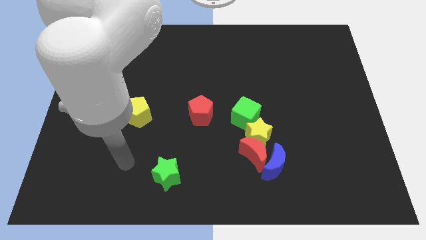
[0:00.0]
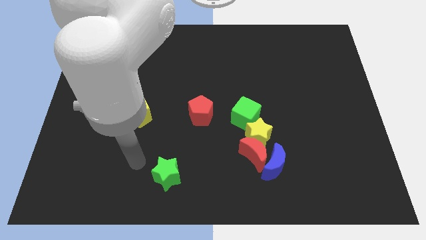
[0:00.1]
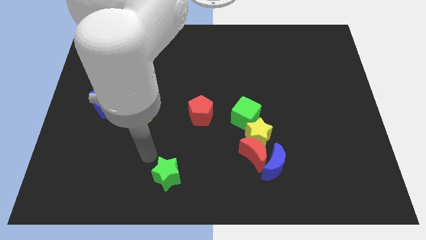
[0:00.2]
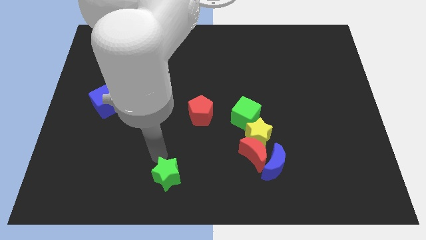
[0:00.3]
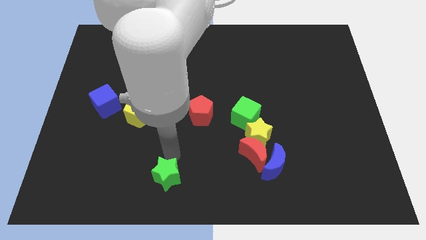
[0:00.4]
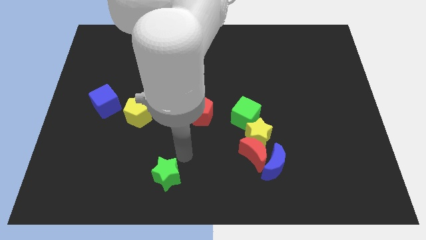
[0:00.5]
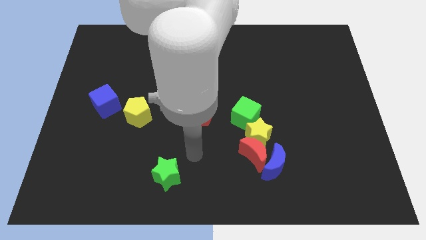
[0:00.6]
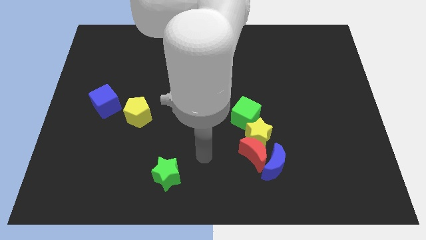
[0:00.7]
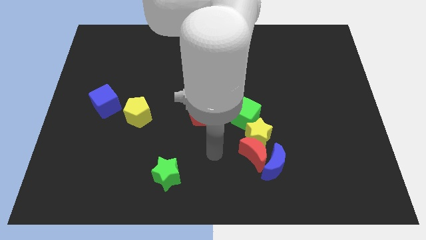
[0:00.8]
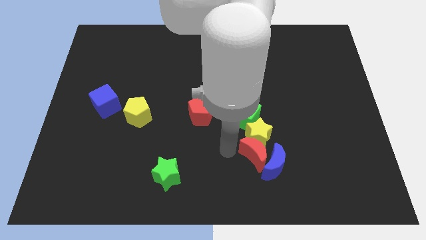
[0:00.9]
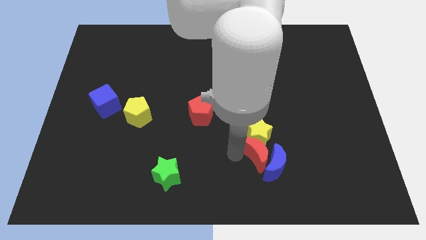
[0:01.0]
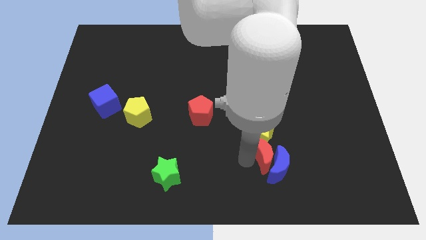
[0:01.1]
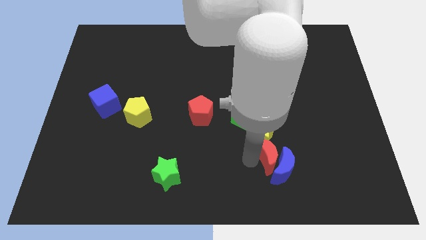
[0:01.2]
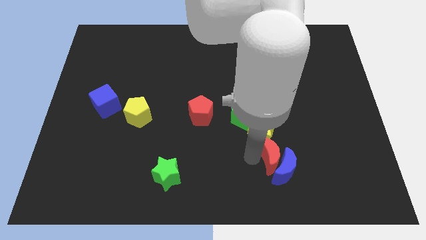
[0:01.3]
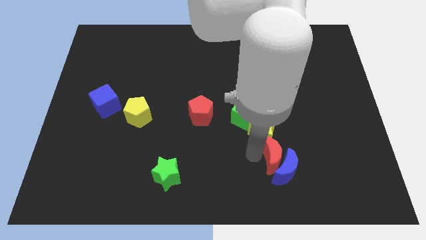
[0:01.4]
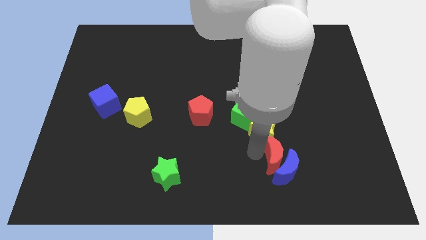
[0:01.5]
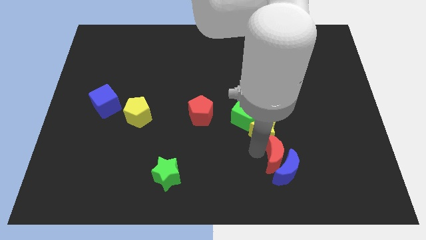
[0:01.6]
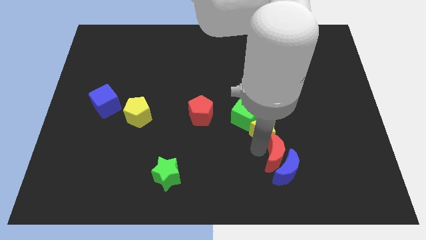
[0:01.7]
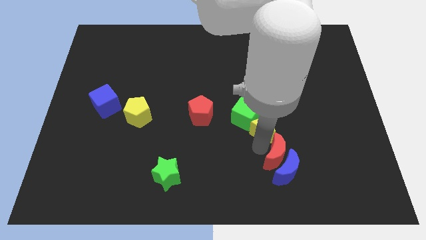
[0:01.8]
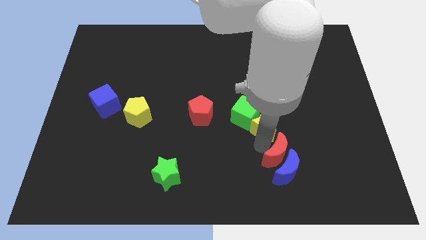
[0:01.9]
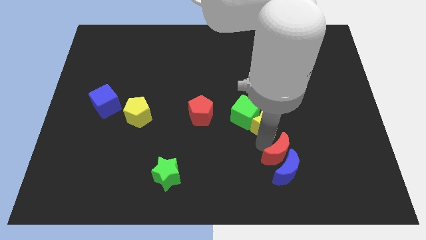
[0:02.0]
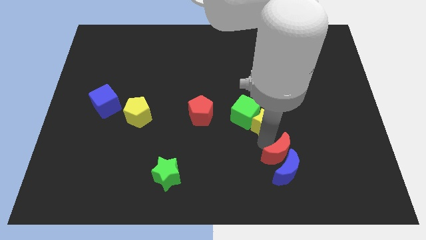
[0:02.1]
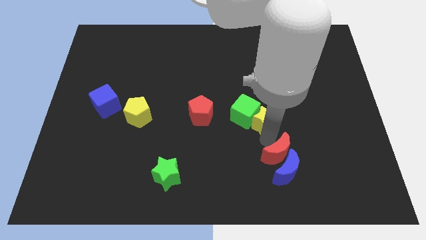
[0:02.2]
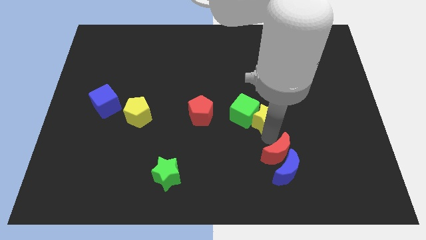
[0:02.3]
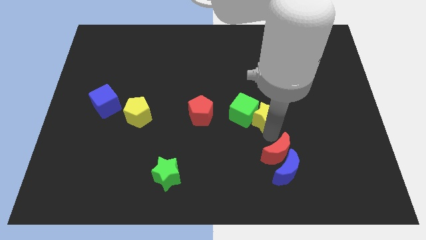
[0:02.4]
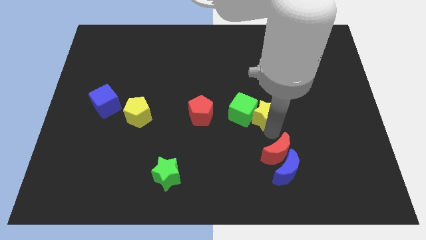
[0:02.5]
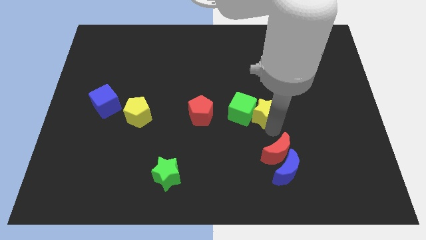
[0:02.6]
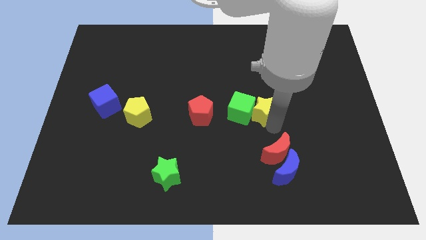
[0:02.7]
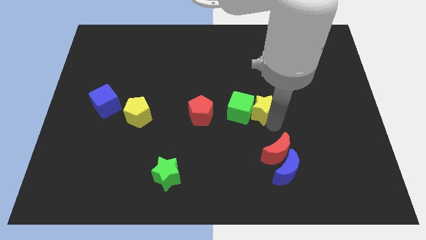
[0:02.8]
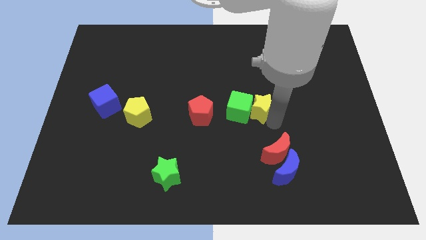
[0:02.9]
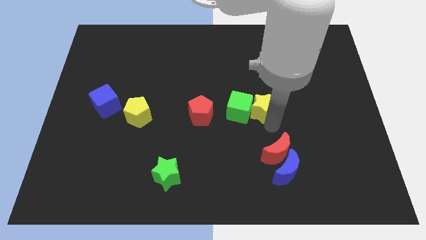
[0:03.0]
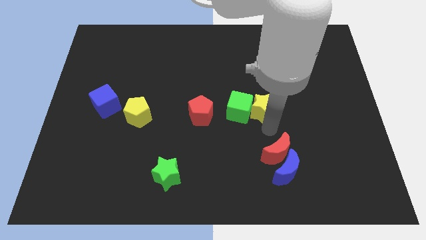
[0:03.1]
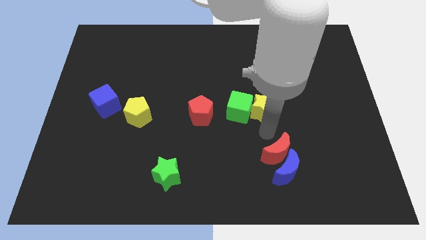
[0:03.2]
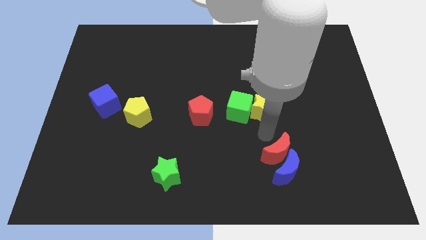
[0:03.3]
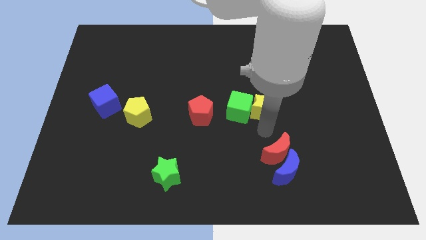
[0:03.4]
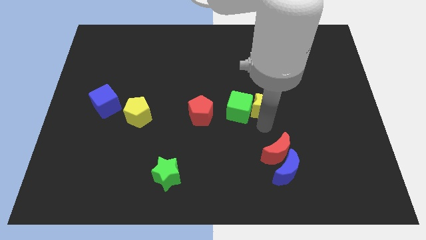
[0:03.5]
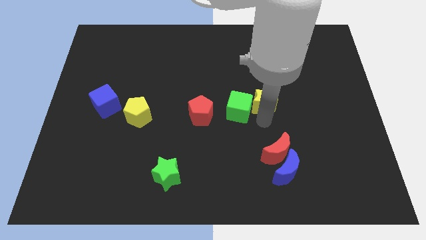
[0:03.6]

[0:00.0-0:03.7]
move the yellow star away from the group of blocks

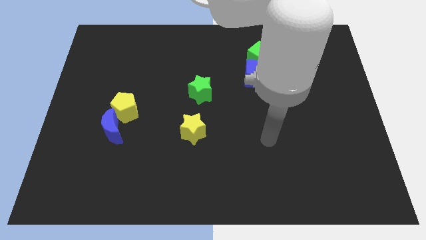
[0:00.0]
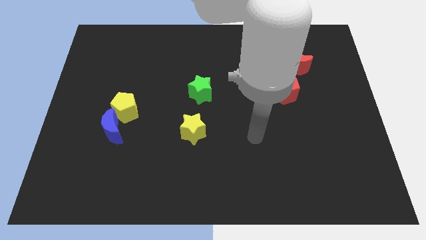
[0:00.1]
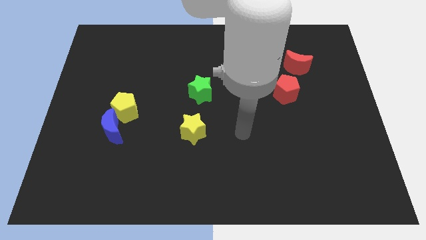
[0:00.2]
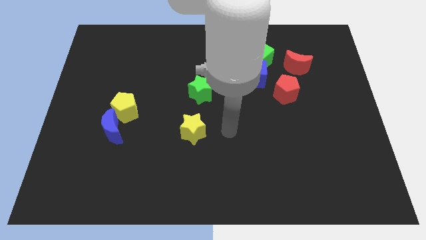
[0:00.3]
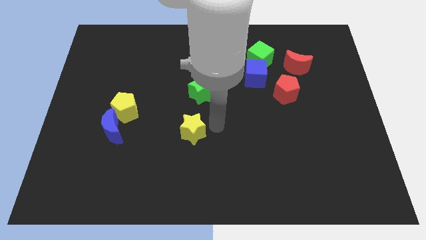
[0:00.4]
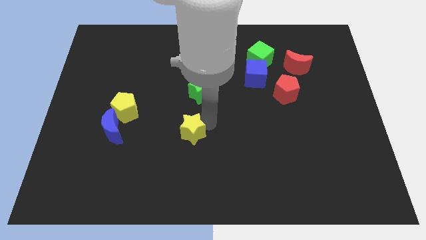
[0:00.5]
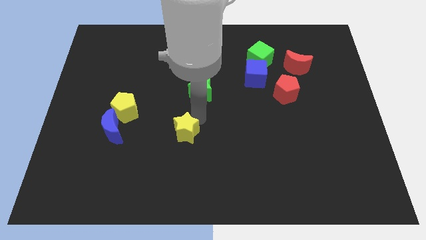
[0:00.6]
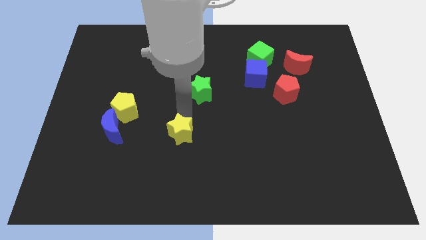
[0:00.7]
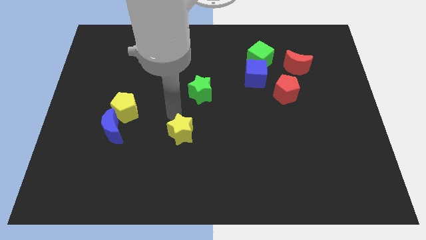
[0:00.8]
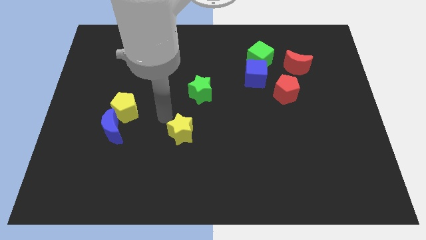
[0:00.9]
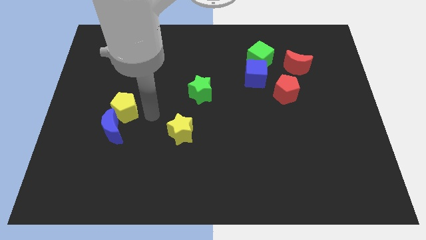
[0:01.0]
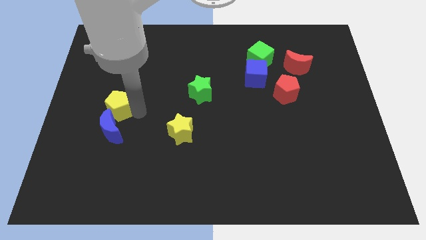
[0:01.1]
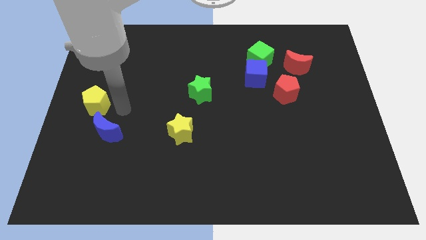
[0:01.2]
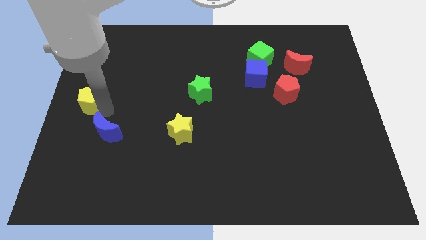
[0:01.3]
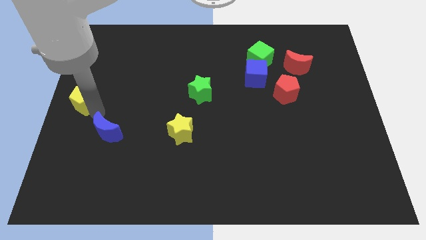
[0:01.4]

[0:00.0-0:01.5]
separate the blue moon from the yellow pentagon

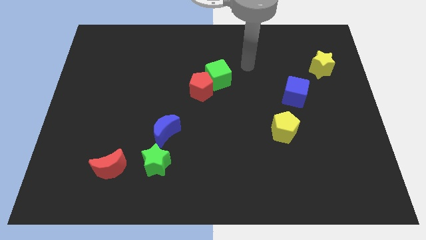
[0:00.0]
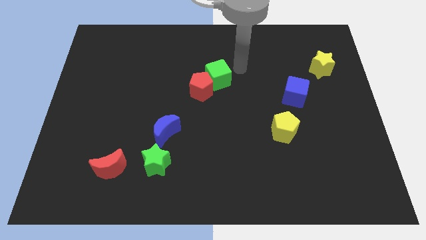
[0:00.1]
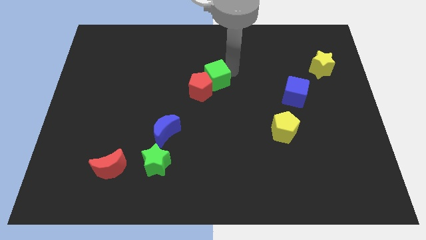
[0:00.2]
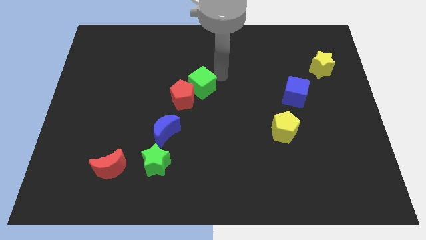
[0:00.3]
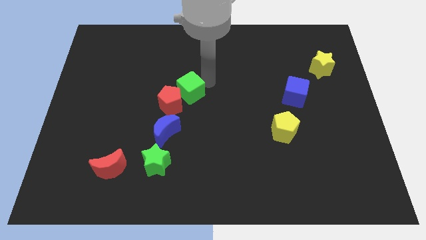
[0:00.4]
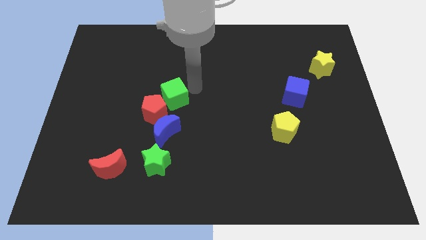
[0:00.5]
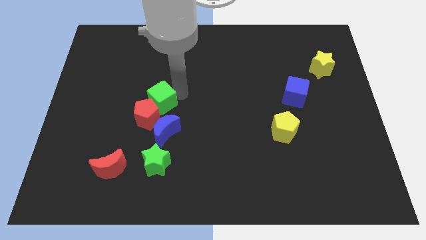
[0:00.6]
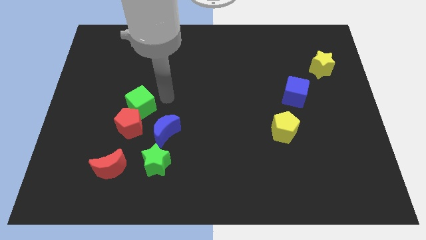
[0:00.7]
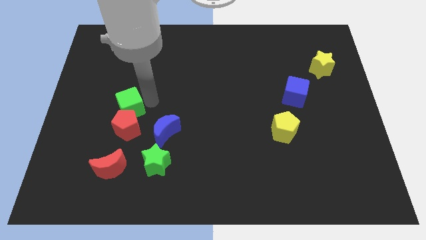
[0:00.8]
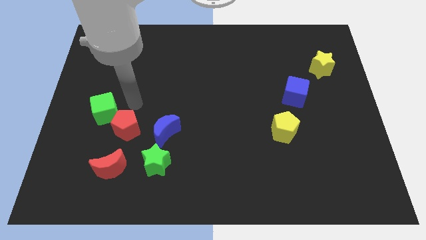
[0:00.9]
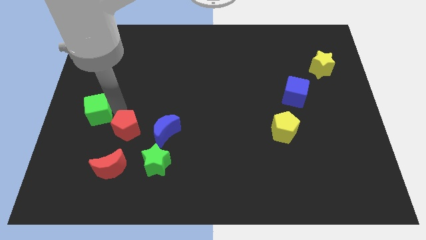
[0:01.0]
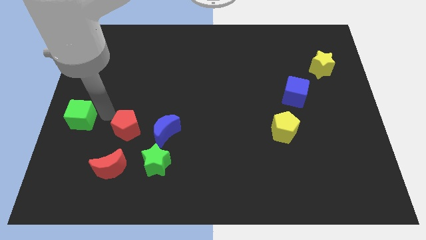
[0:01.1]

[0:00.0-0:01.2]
pull the red pentagon apart from the green cube

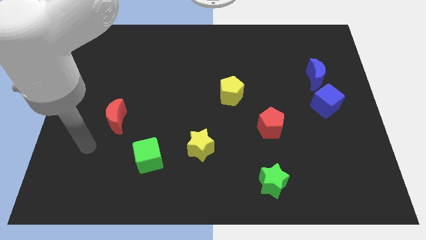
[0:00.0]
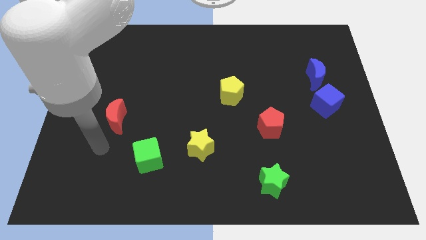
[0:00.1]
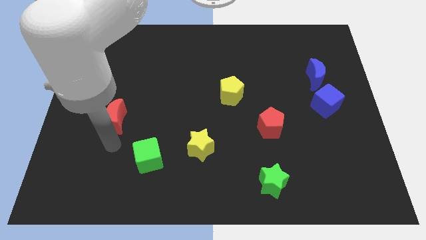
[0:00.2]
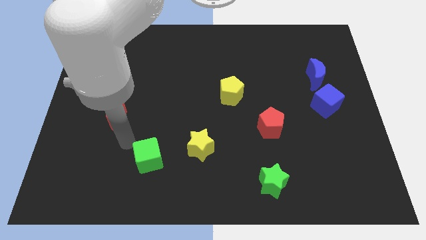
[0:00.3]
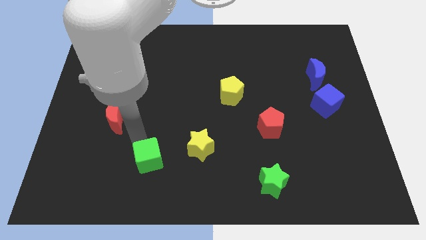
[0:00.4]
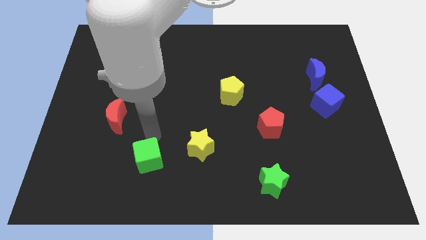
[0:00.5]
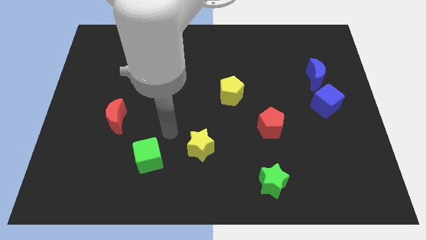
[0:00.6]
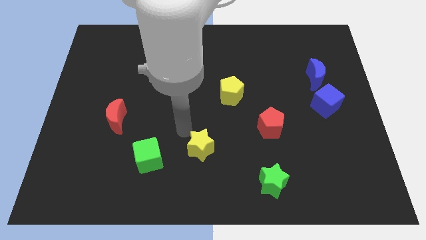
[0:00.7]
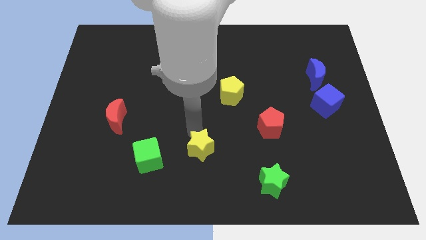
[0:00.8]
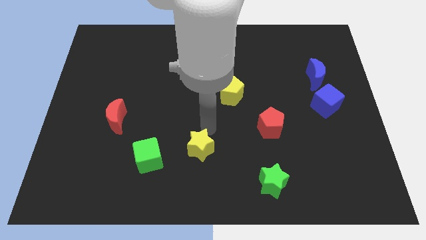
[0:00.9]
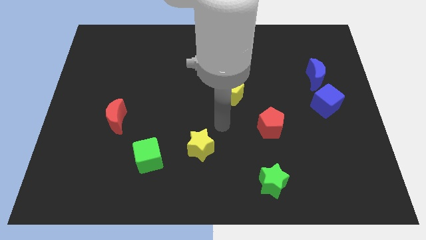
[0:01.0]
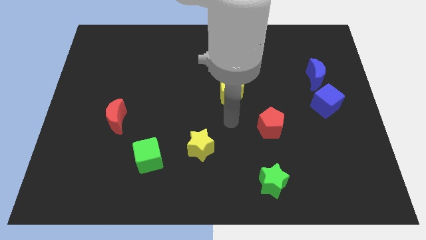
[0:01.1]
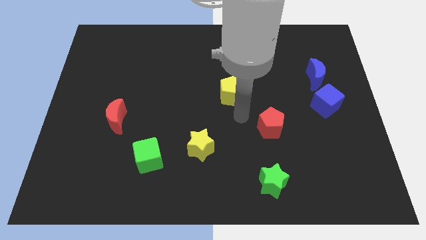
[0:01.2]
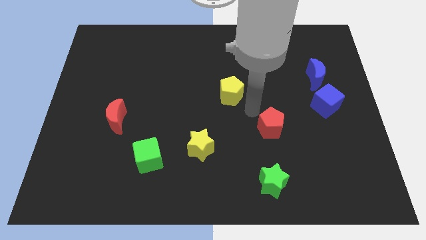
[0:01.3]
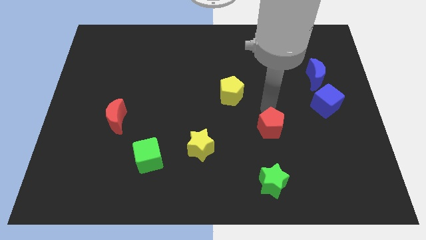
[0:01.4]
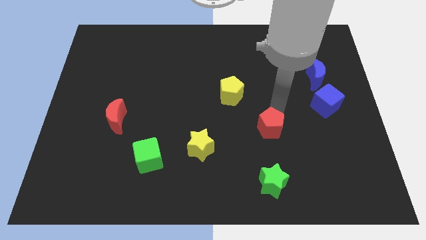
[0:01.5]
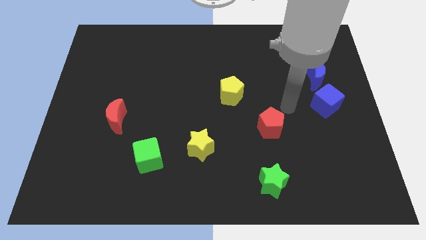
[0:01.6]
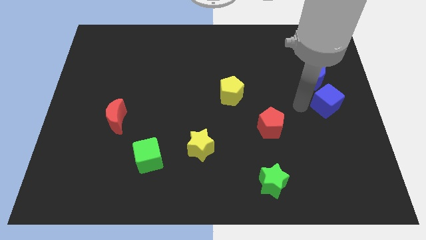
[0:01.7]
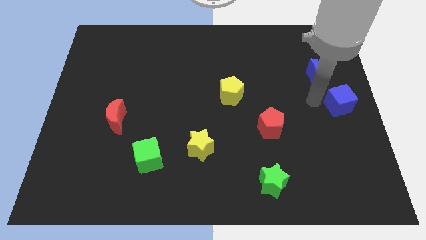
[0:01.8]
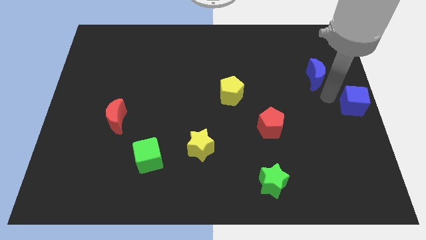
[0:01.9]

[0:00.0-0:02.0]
pull the blue moon apart from the blue cube

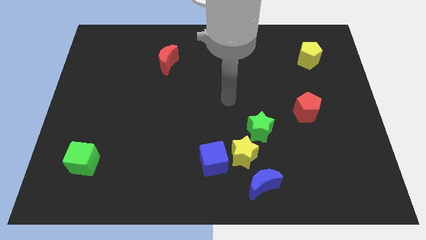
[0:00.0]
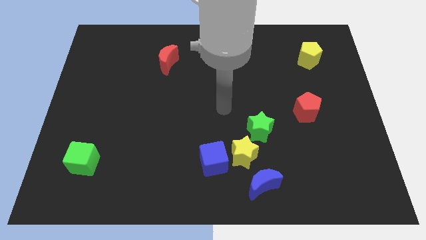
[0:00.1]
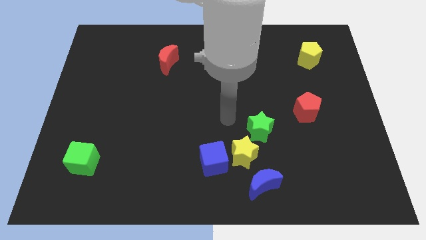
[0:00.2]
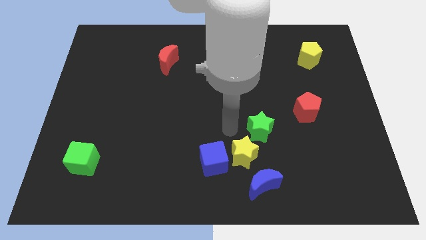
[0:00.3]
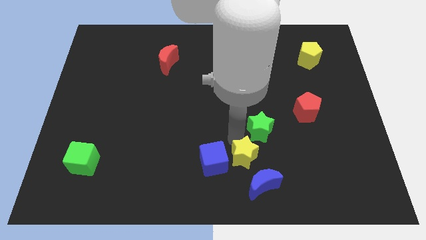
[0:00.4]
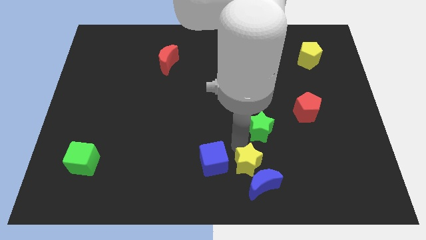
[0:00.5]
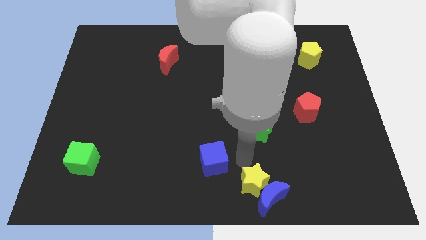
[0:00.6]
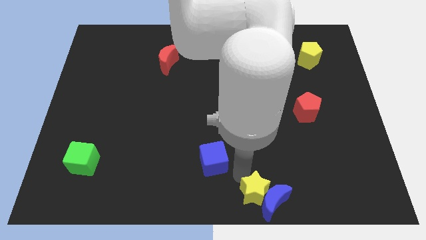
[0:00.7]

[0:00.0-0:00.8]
pull the blue cube apart from the yellow star

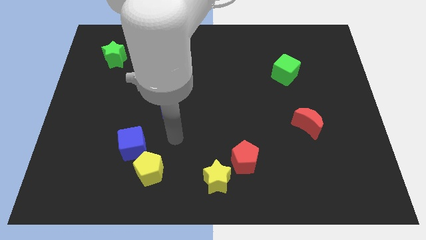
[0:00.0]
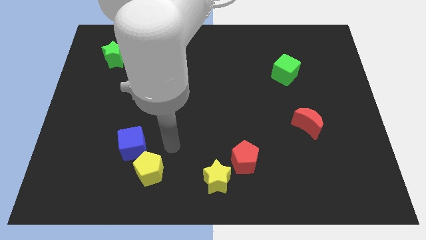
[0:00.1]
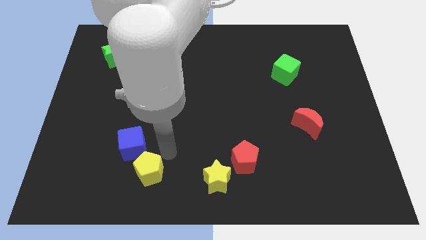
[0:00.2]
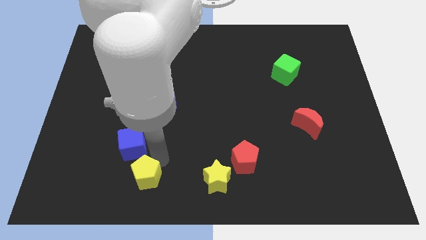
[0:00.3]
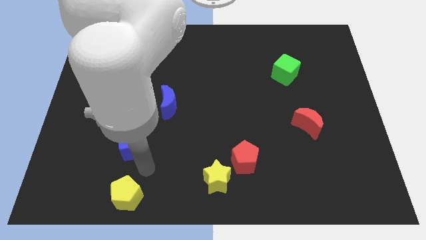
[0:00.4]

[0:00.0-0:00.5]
pull the blue cube apart from the yellow pentagon
